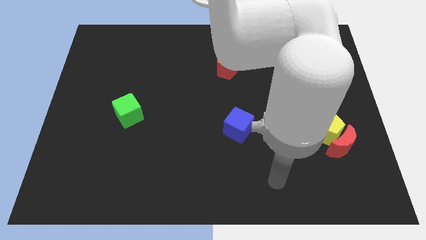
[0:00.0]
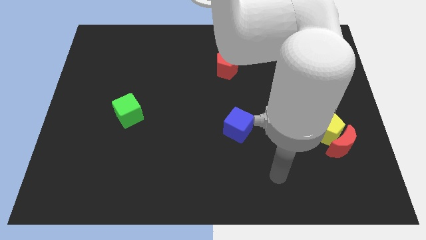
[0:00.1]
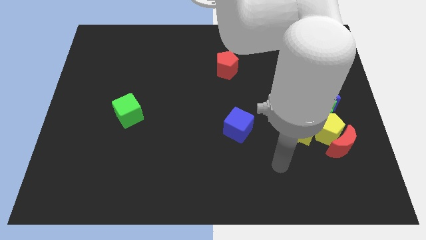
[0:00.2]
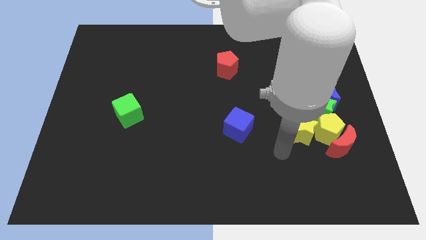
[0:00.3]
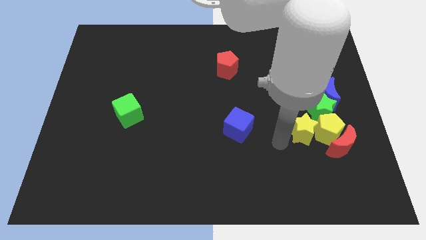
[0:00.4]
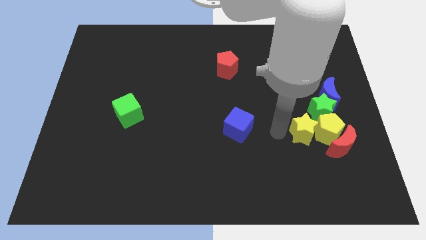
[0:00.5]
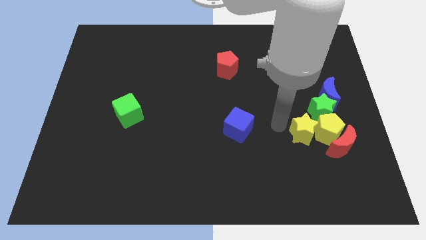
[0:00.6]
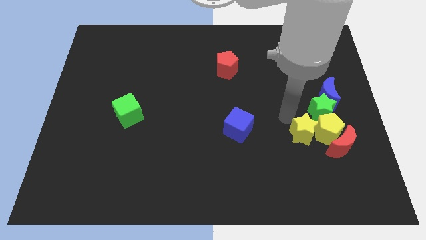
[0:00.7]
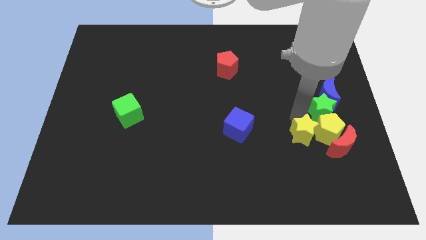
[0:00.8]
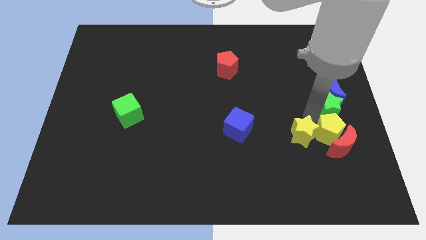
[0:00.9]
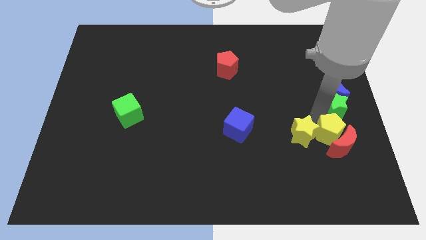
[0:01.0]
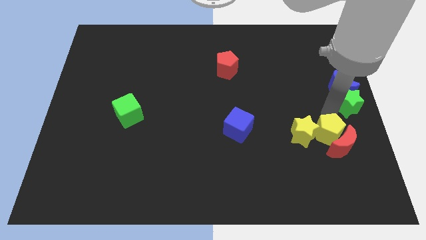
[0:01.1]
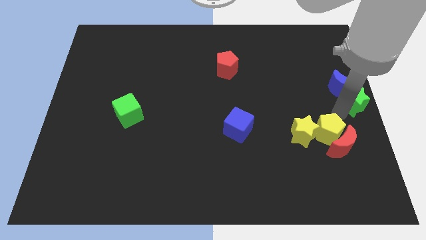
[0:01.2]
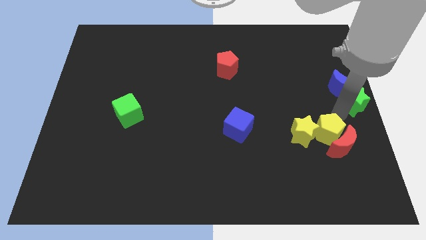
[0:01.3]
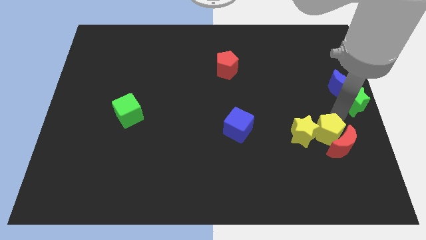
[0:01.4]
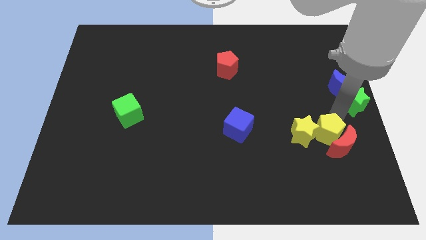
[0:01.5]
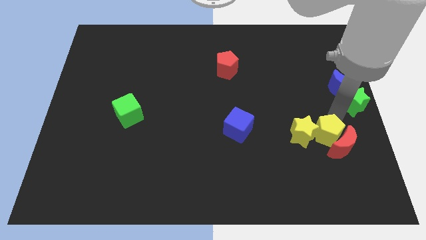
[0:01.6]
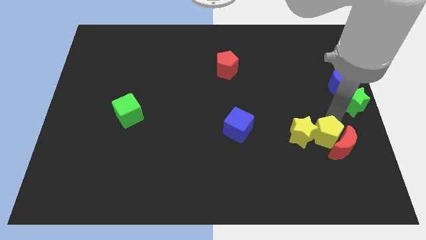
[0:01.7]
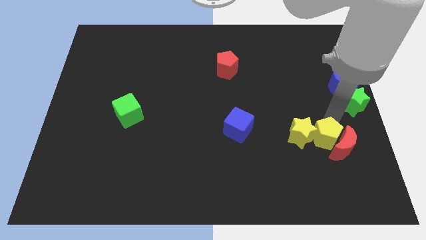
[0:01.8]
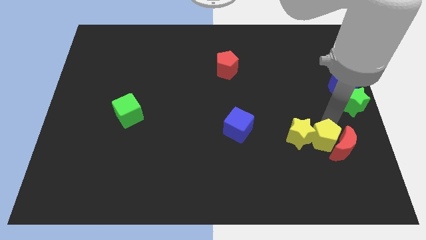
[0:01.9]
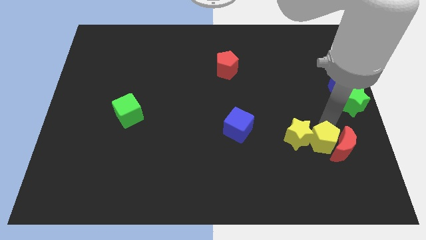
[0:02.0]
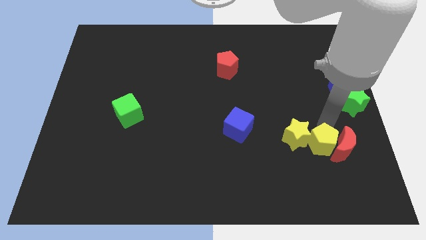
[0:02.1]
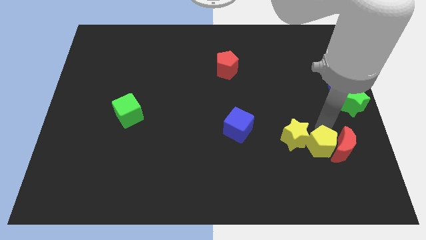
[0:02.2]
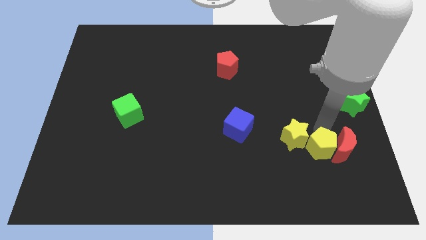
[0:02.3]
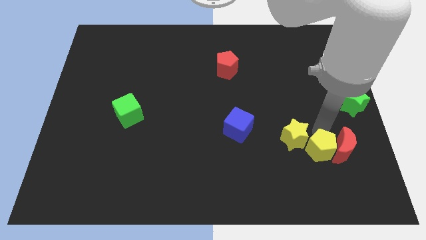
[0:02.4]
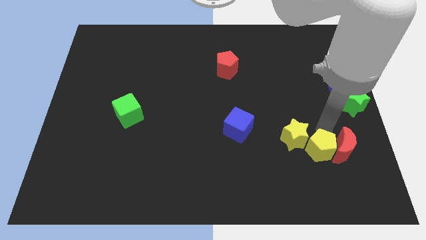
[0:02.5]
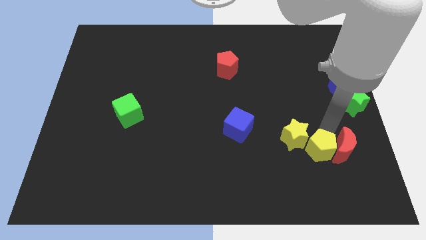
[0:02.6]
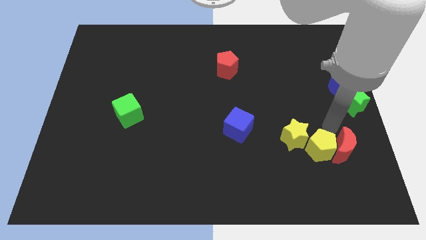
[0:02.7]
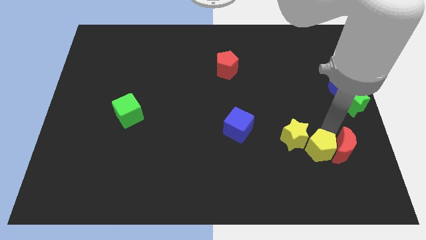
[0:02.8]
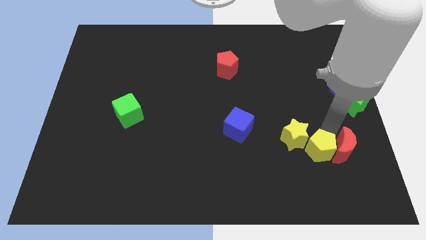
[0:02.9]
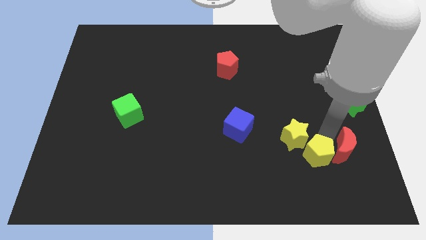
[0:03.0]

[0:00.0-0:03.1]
pull the yellow pentagon apart from the group

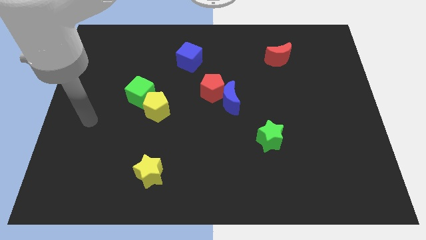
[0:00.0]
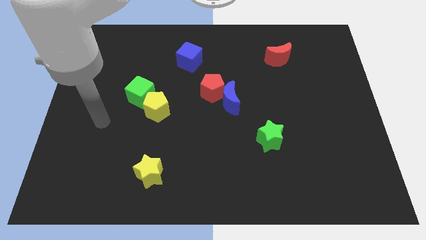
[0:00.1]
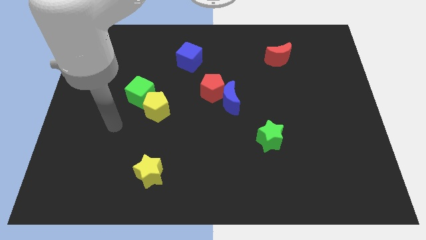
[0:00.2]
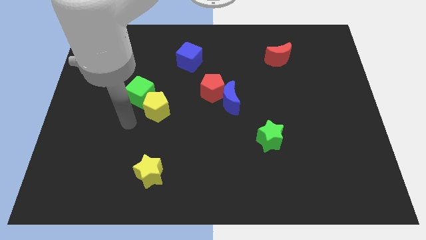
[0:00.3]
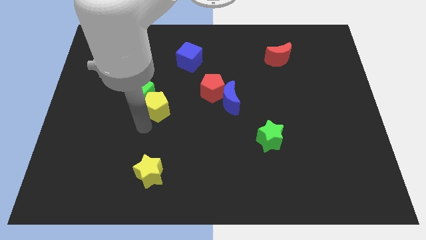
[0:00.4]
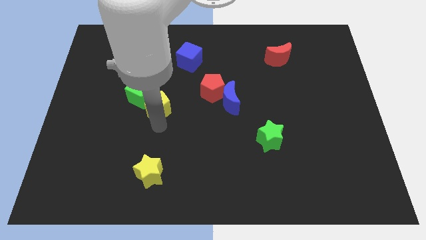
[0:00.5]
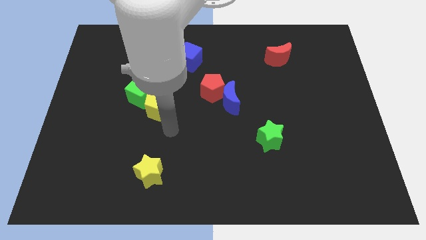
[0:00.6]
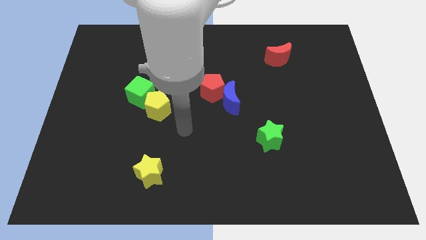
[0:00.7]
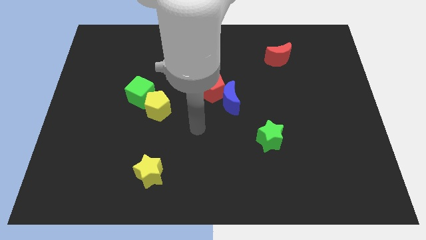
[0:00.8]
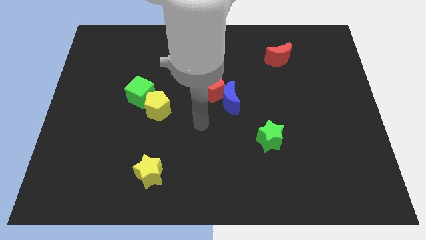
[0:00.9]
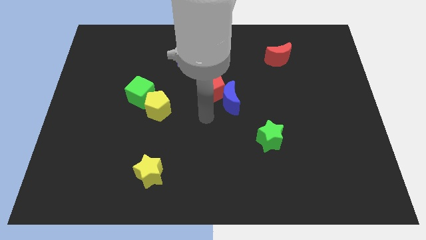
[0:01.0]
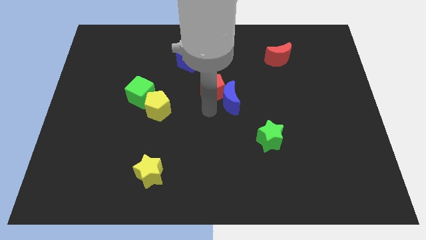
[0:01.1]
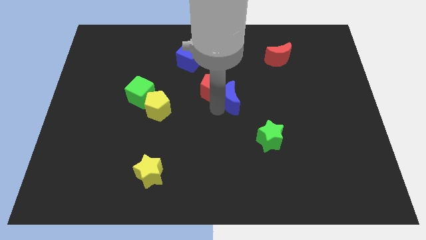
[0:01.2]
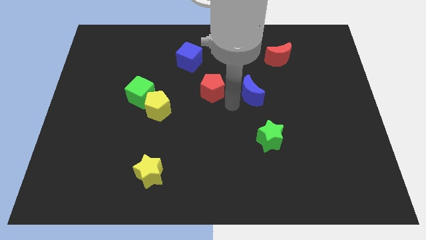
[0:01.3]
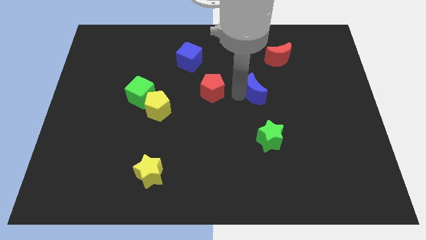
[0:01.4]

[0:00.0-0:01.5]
pull the red pentagon apart from the blue moon

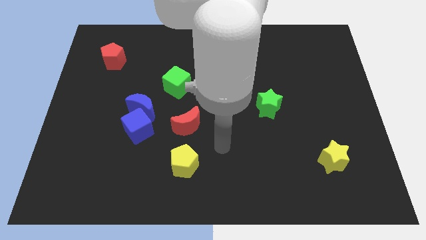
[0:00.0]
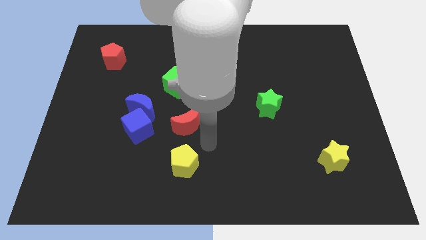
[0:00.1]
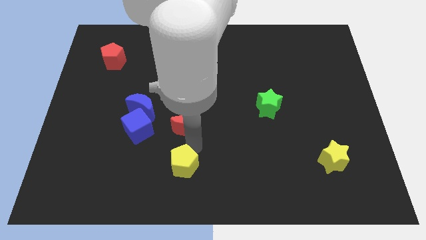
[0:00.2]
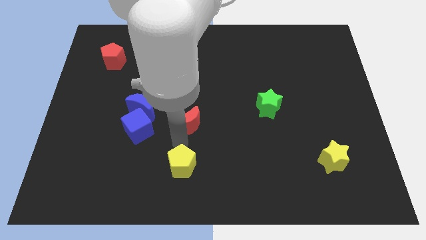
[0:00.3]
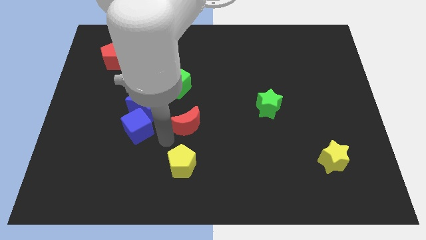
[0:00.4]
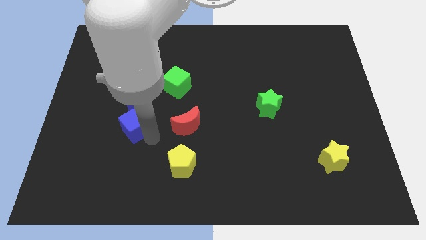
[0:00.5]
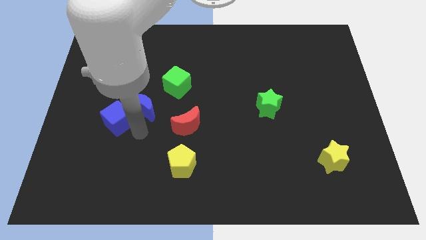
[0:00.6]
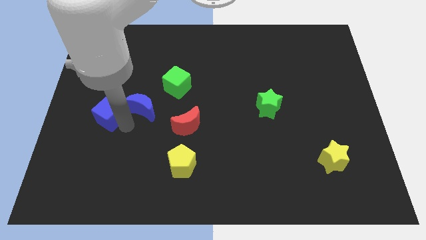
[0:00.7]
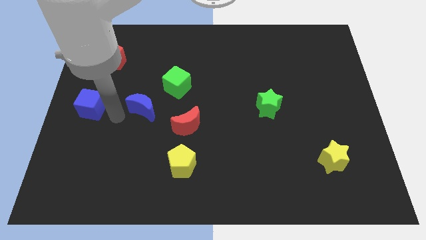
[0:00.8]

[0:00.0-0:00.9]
separate the blue moon from the blue cube

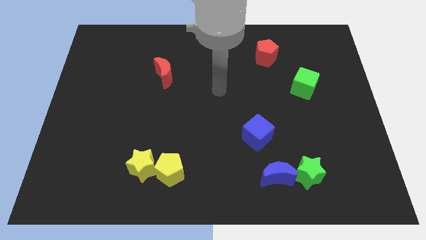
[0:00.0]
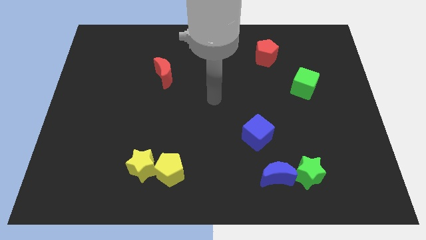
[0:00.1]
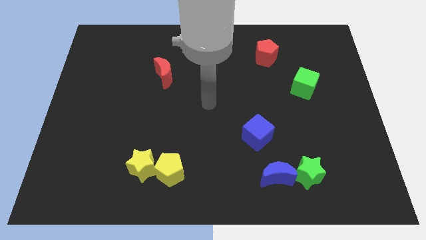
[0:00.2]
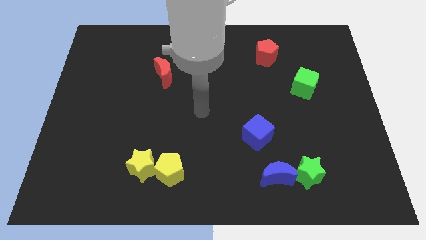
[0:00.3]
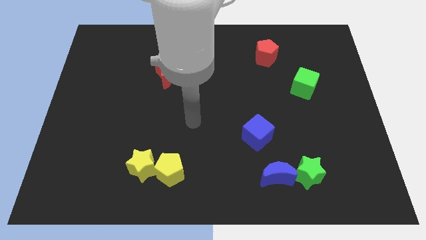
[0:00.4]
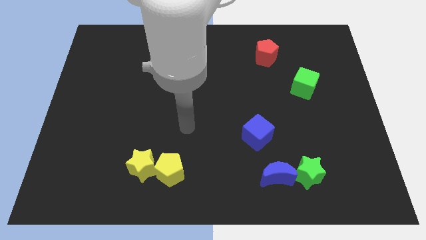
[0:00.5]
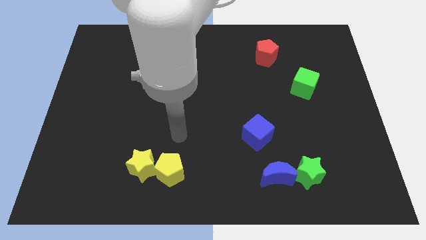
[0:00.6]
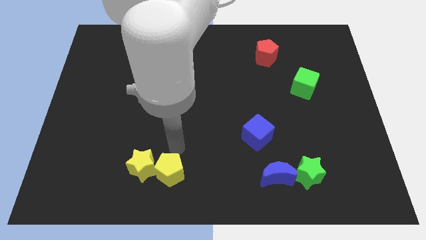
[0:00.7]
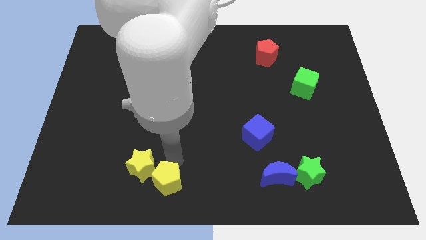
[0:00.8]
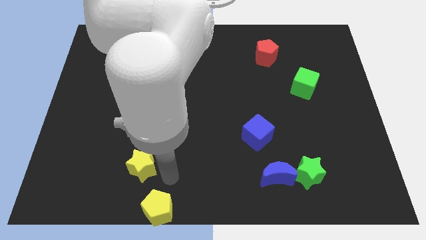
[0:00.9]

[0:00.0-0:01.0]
separate the yellow star from the yellow pentagon

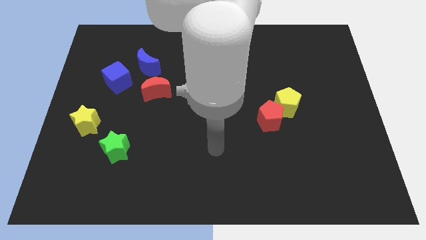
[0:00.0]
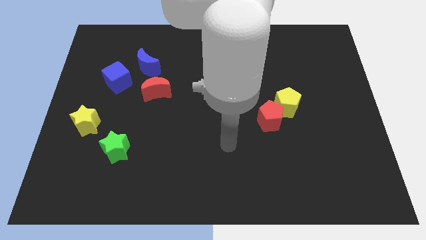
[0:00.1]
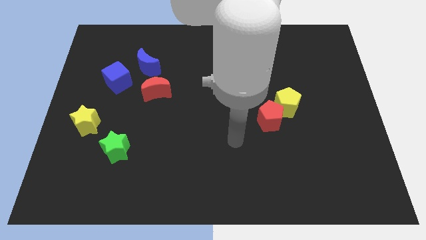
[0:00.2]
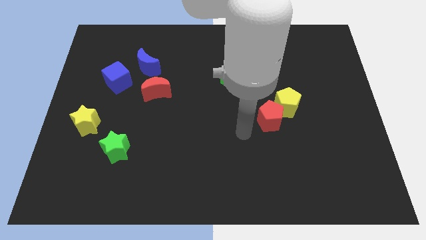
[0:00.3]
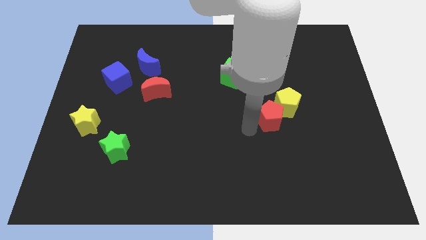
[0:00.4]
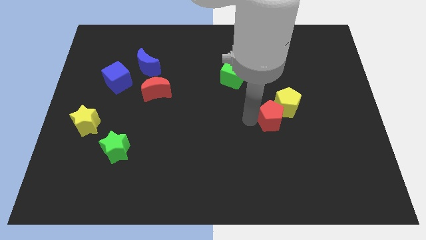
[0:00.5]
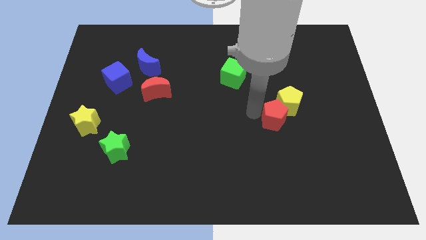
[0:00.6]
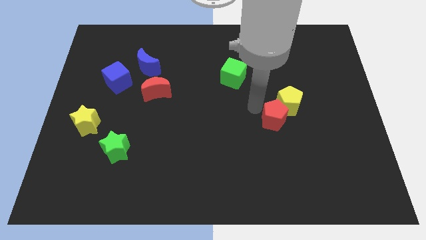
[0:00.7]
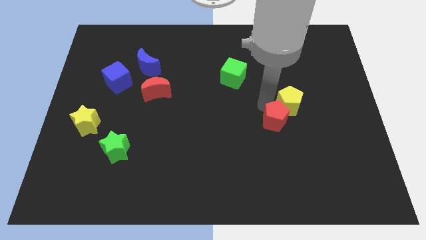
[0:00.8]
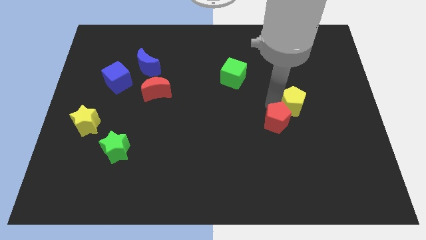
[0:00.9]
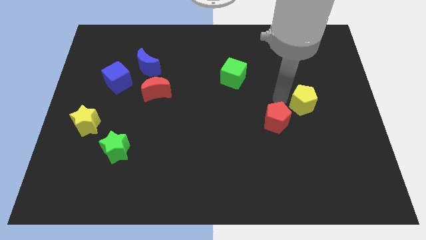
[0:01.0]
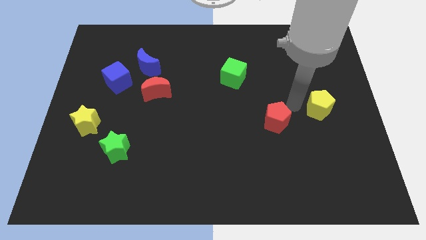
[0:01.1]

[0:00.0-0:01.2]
separate the red pentagon from the yellow pentagon

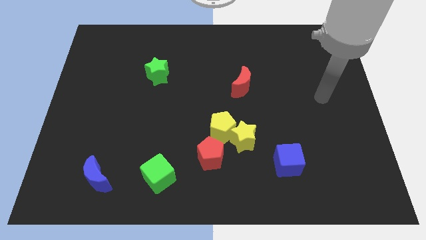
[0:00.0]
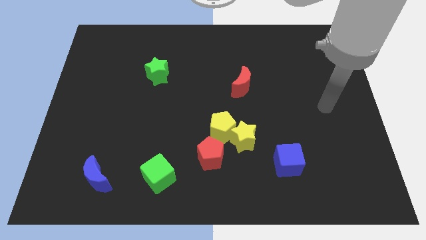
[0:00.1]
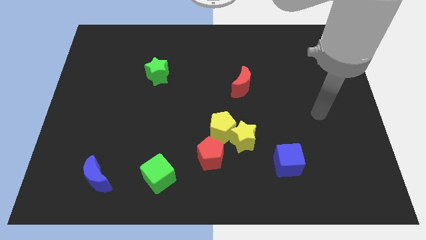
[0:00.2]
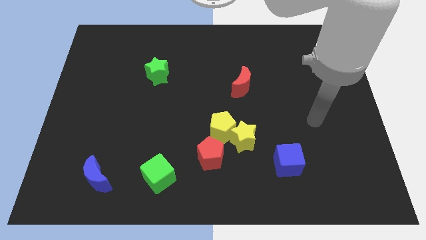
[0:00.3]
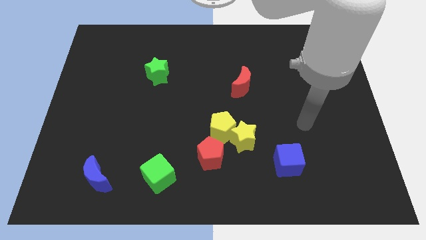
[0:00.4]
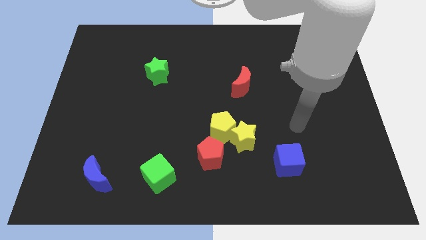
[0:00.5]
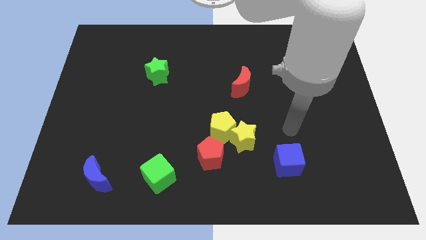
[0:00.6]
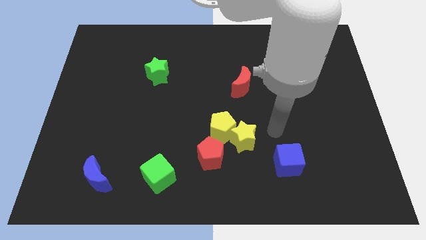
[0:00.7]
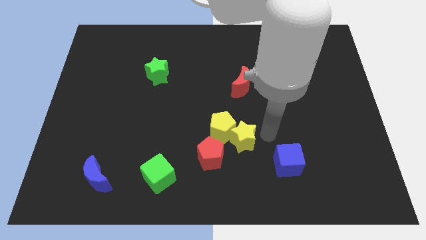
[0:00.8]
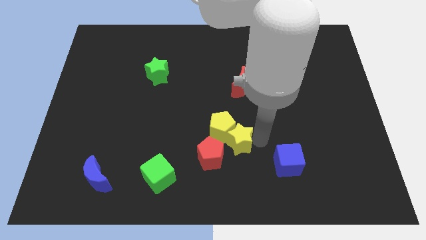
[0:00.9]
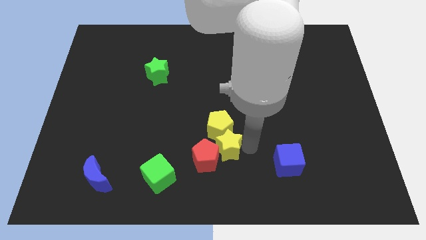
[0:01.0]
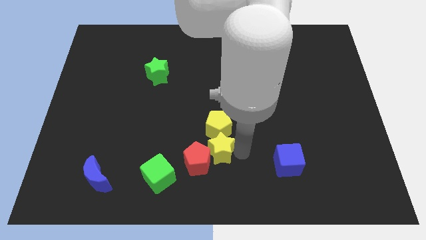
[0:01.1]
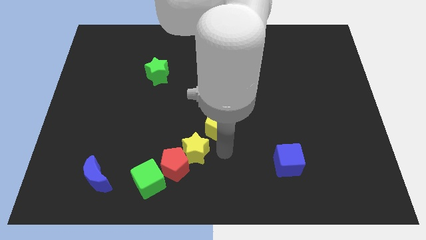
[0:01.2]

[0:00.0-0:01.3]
separate the yellow pentagon from the yellow star and red pentagon
